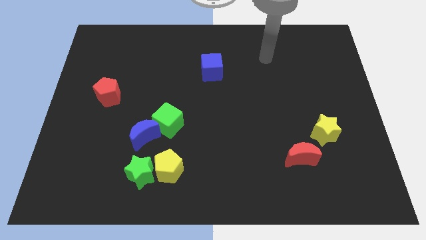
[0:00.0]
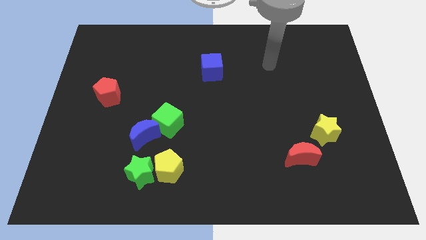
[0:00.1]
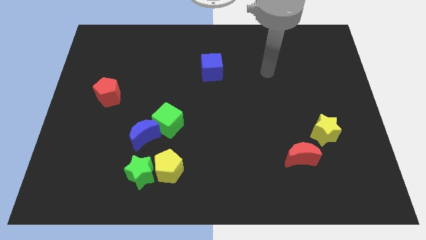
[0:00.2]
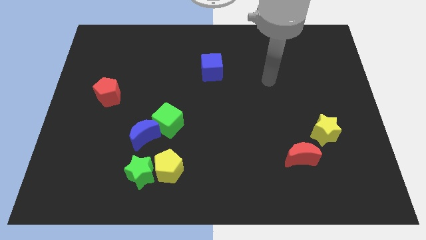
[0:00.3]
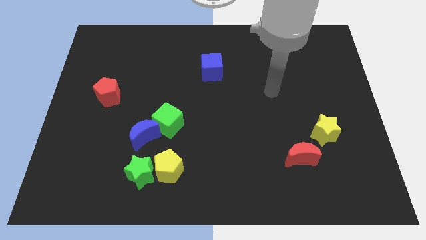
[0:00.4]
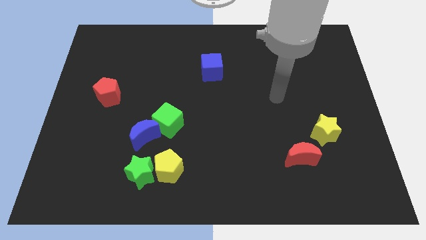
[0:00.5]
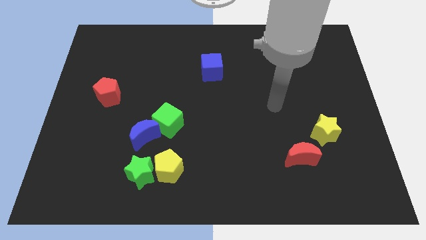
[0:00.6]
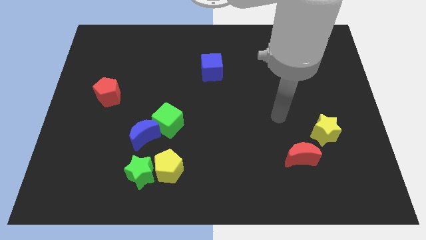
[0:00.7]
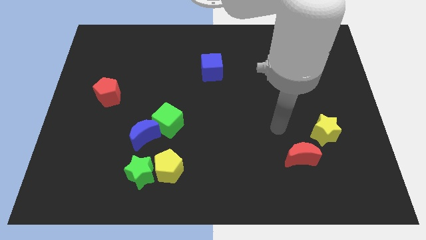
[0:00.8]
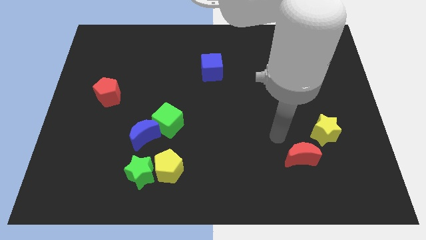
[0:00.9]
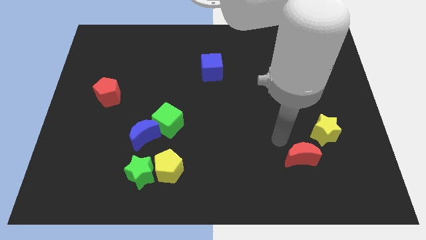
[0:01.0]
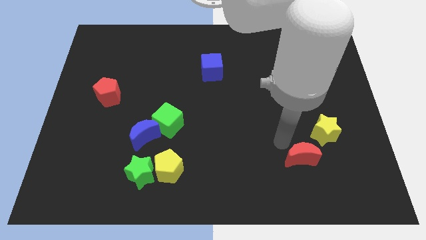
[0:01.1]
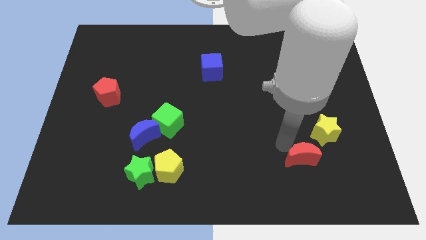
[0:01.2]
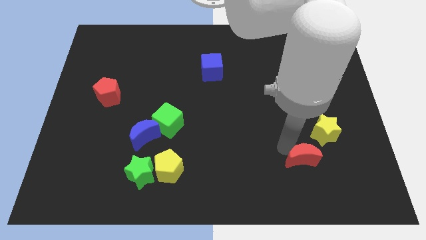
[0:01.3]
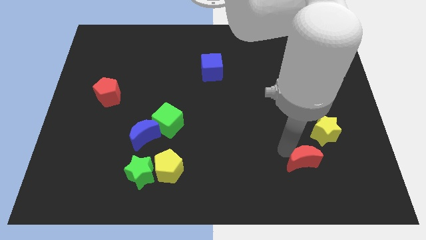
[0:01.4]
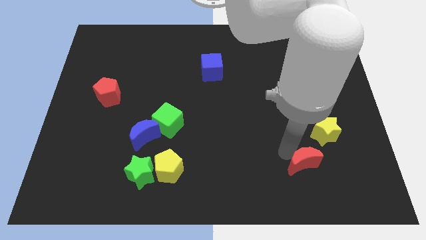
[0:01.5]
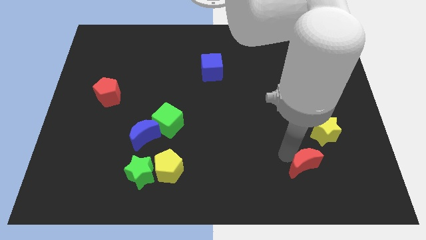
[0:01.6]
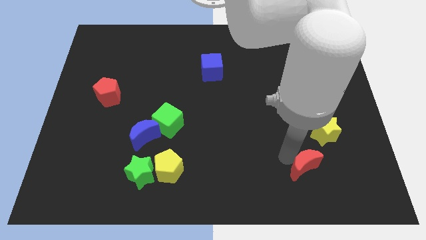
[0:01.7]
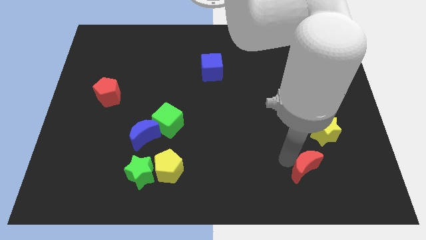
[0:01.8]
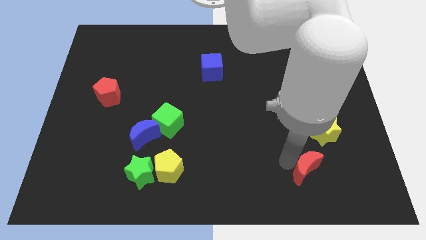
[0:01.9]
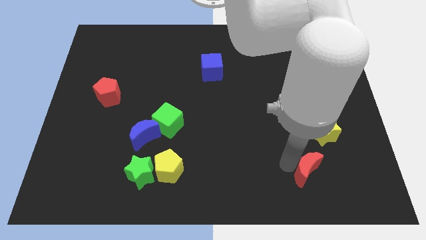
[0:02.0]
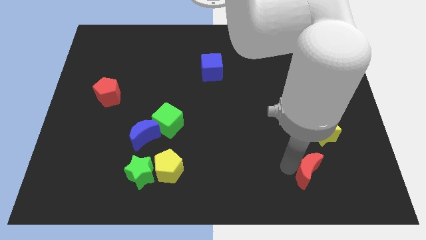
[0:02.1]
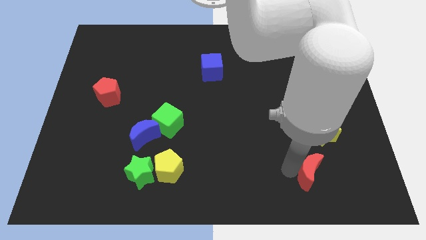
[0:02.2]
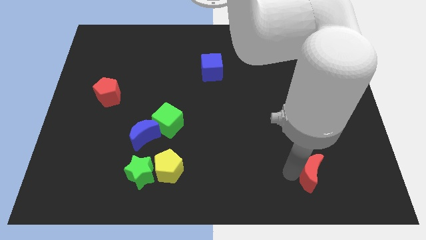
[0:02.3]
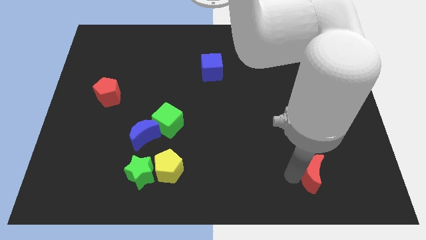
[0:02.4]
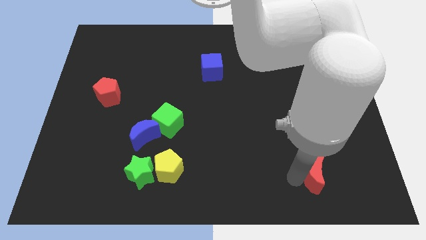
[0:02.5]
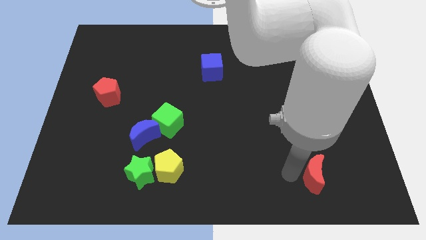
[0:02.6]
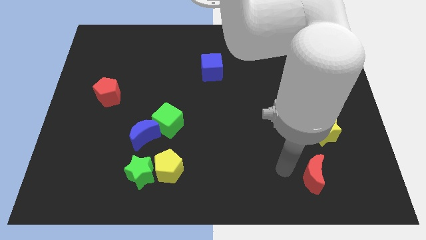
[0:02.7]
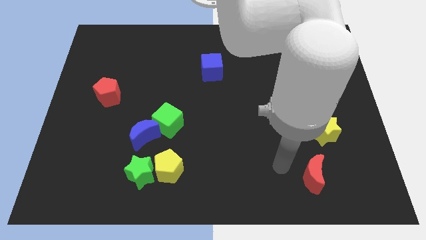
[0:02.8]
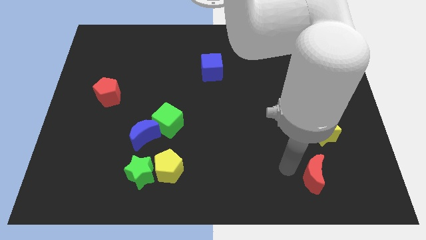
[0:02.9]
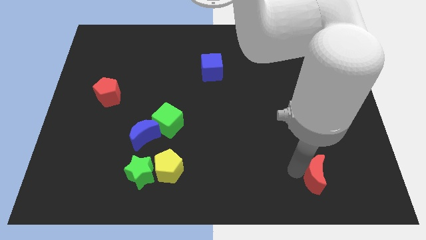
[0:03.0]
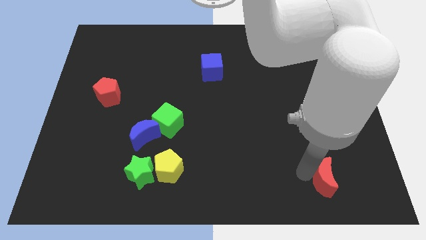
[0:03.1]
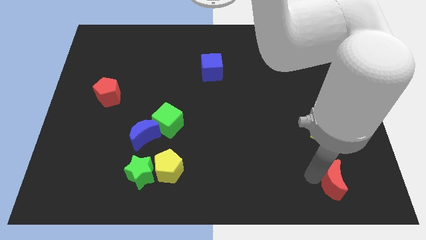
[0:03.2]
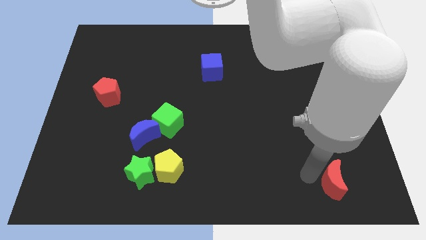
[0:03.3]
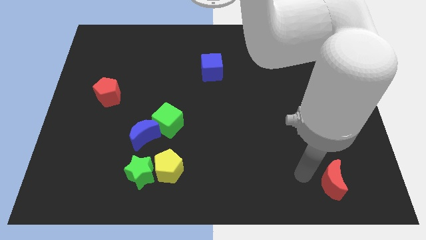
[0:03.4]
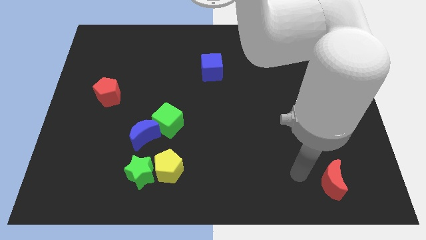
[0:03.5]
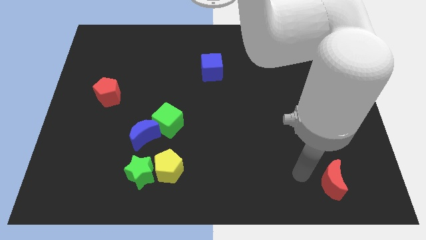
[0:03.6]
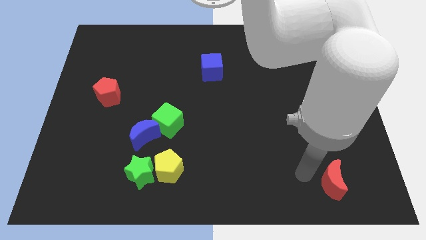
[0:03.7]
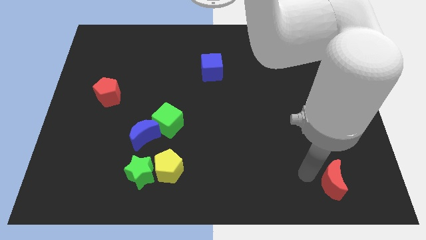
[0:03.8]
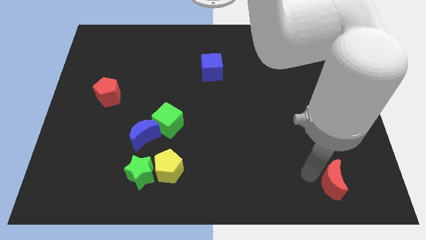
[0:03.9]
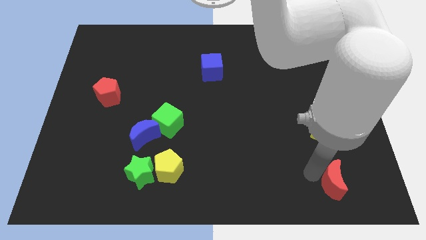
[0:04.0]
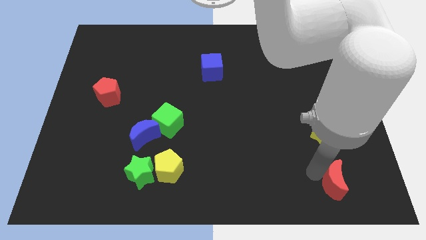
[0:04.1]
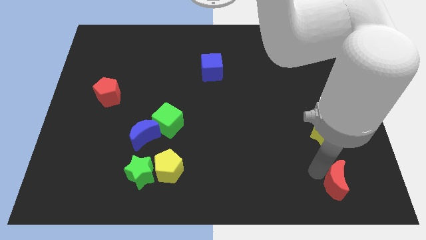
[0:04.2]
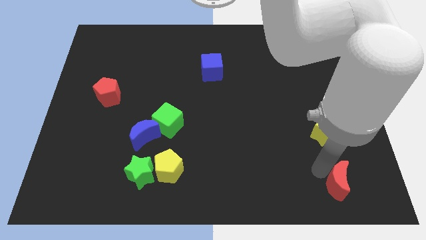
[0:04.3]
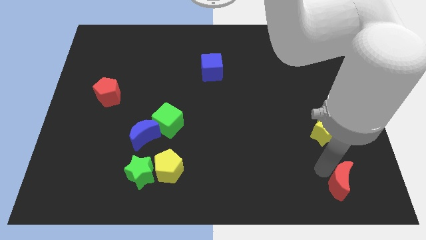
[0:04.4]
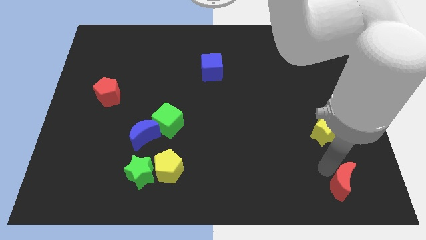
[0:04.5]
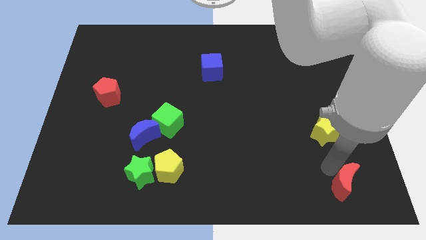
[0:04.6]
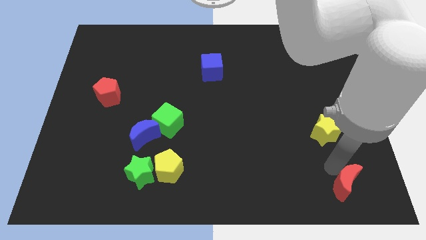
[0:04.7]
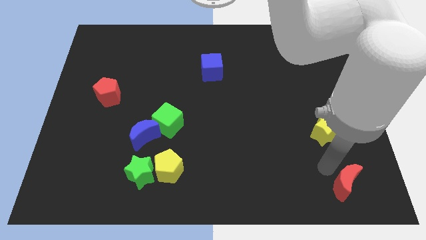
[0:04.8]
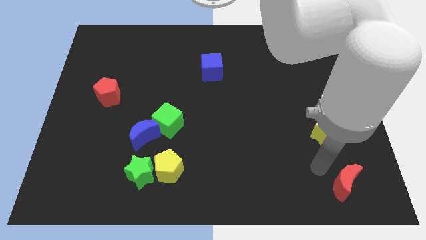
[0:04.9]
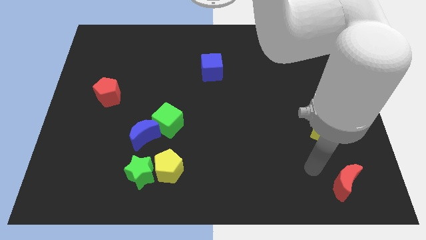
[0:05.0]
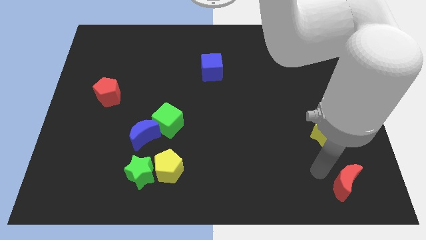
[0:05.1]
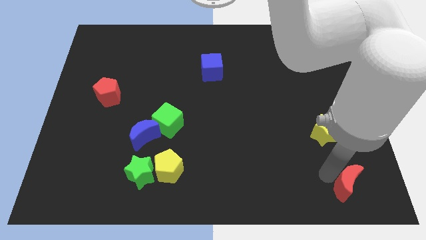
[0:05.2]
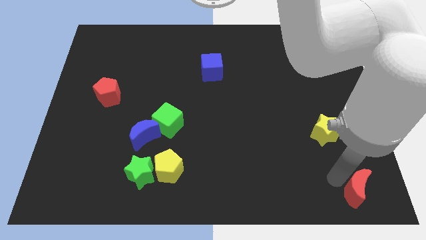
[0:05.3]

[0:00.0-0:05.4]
push the red moon to the bottom right corner
